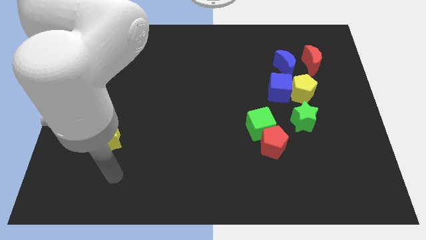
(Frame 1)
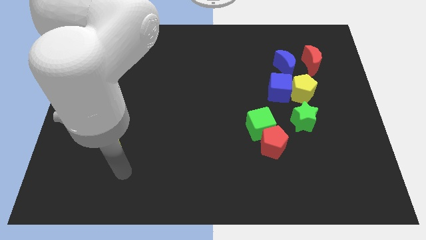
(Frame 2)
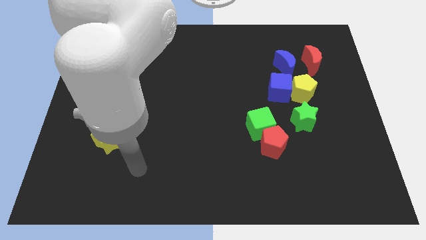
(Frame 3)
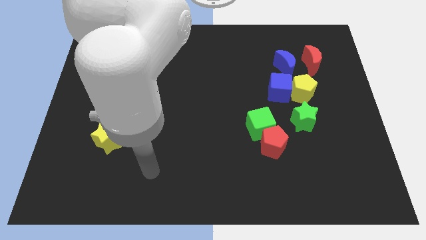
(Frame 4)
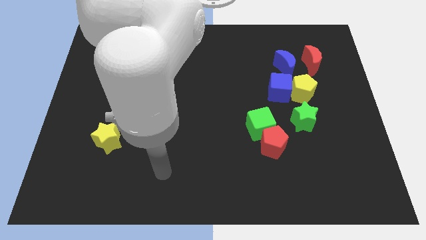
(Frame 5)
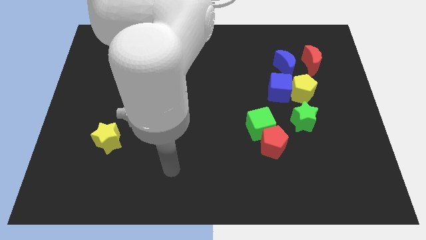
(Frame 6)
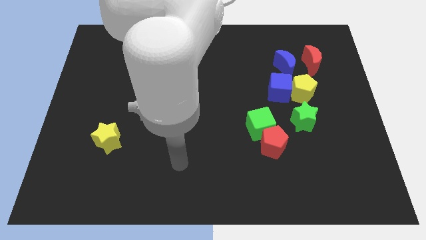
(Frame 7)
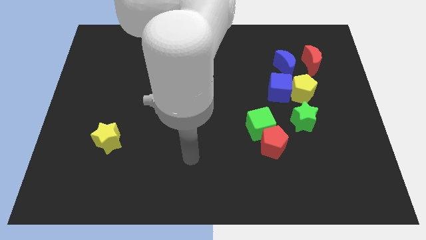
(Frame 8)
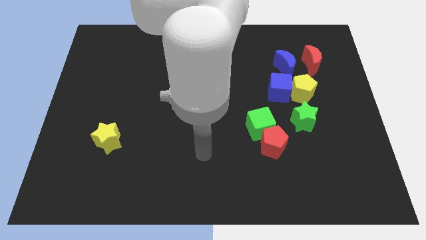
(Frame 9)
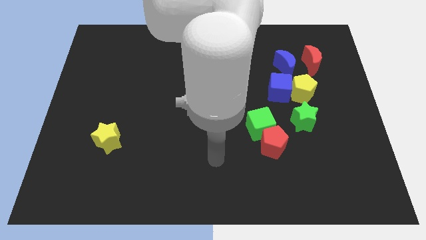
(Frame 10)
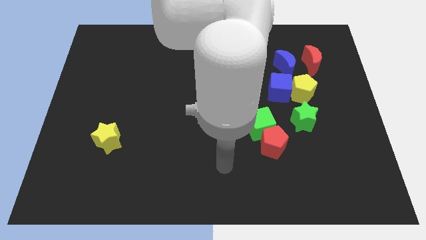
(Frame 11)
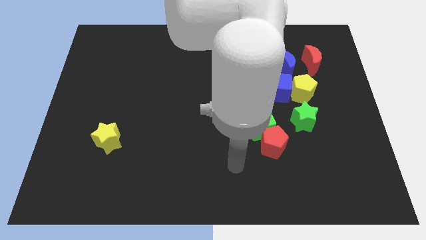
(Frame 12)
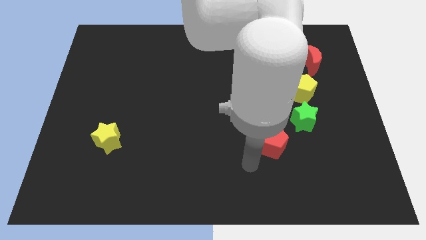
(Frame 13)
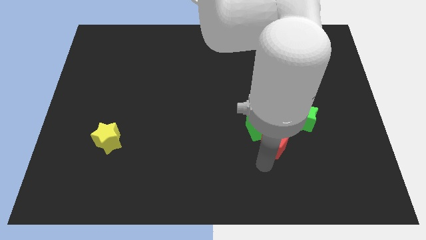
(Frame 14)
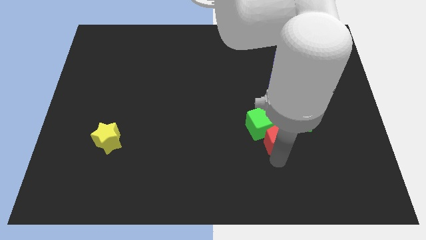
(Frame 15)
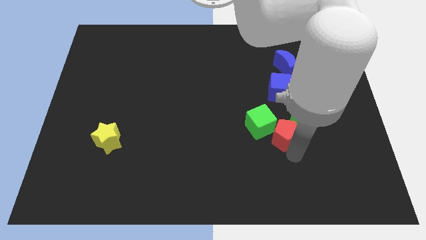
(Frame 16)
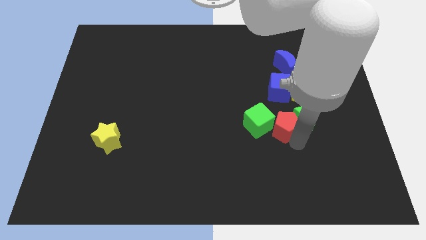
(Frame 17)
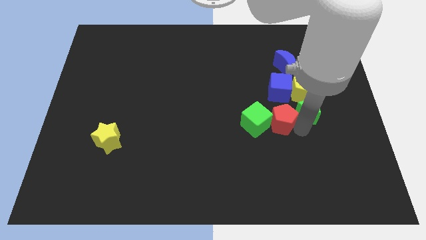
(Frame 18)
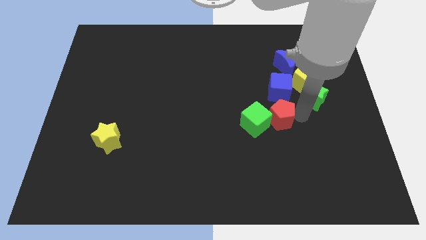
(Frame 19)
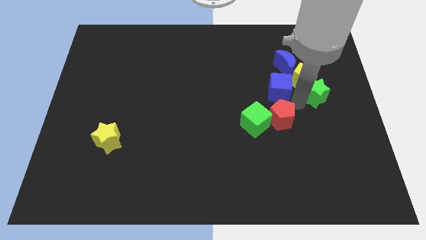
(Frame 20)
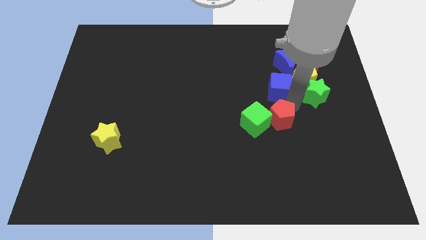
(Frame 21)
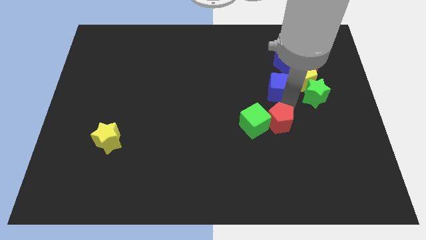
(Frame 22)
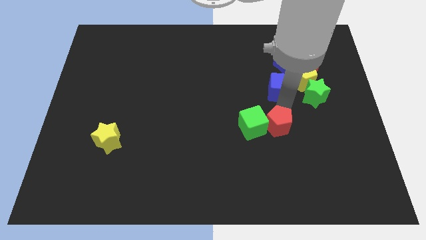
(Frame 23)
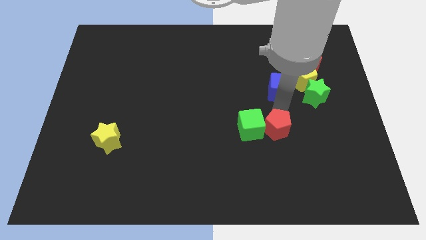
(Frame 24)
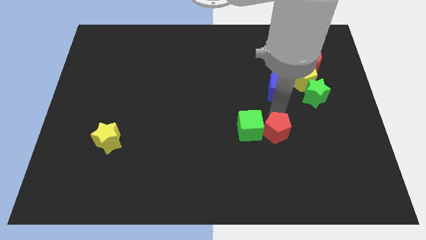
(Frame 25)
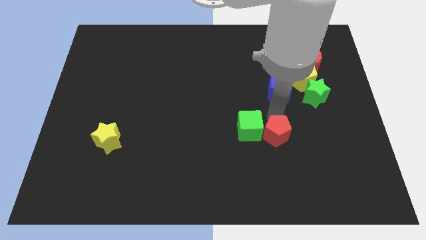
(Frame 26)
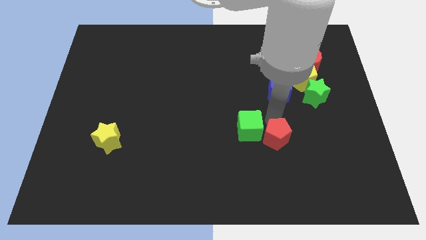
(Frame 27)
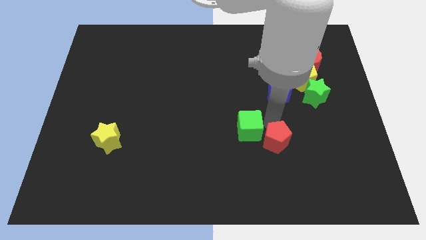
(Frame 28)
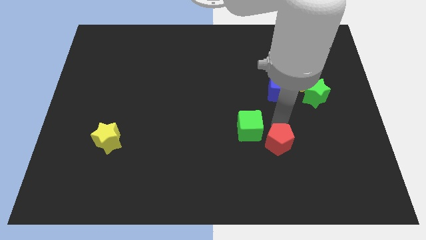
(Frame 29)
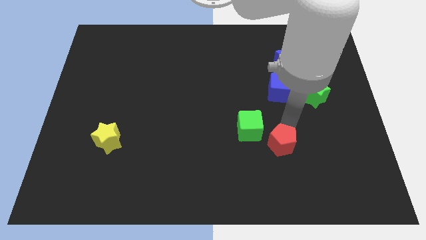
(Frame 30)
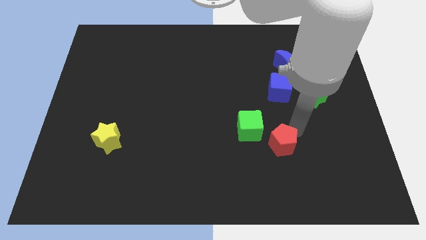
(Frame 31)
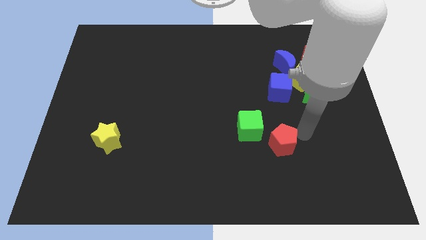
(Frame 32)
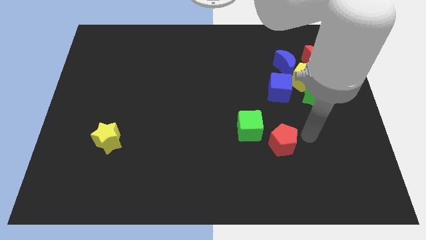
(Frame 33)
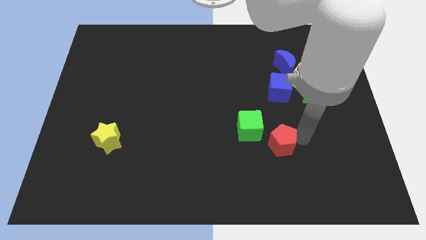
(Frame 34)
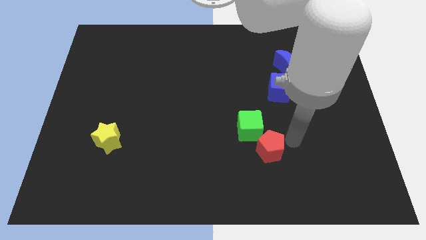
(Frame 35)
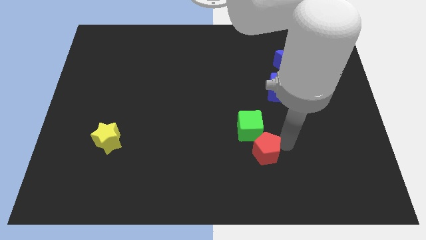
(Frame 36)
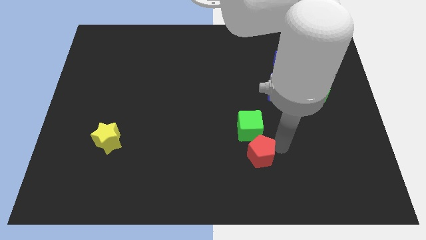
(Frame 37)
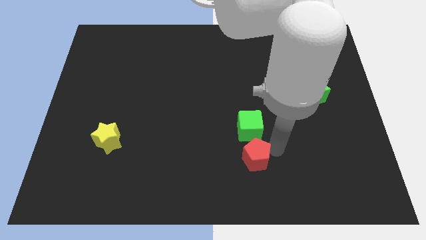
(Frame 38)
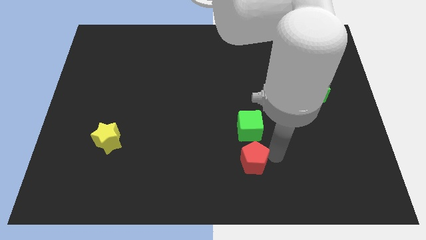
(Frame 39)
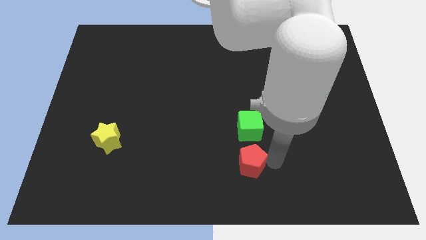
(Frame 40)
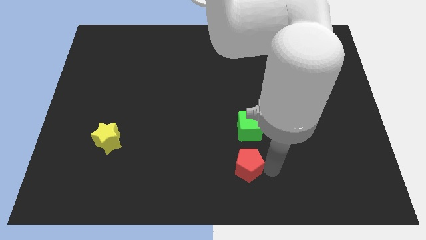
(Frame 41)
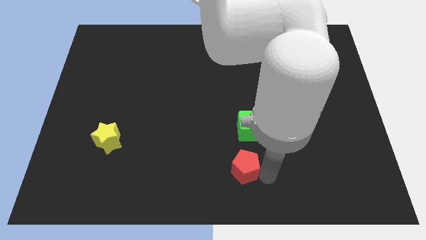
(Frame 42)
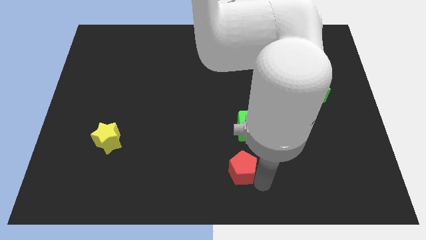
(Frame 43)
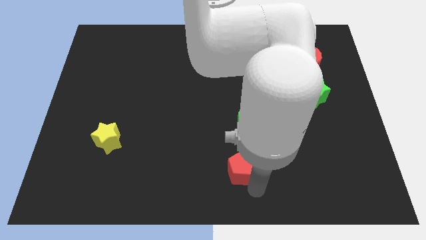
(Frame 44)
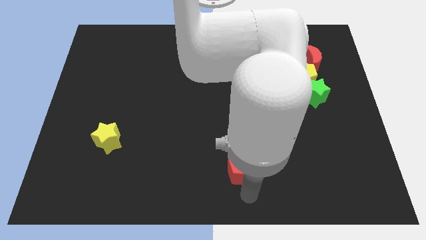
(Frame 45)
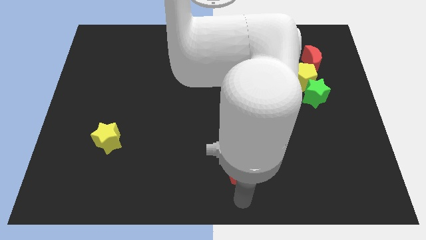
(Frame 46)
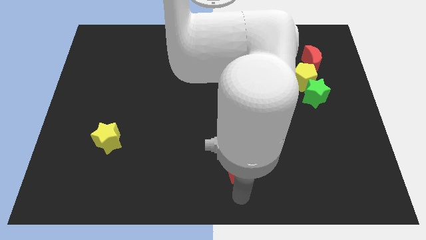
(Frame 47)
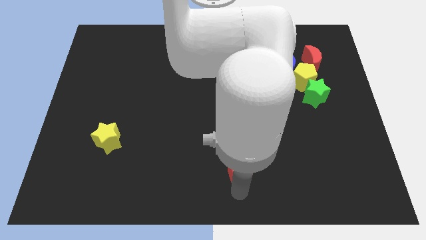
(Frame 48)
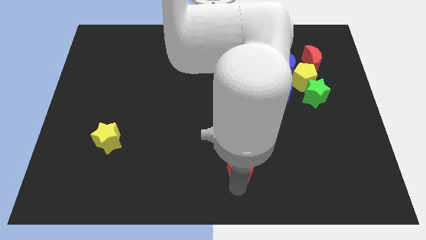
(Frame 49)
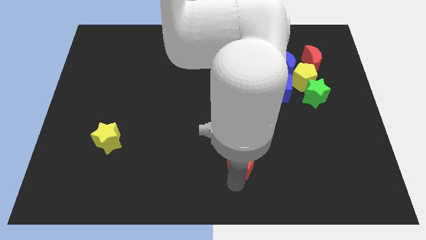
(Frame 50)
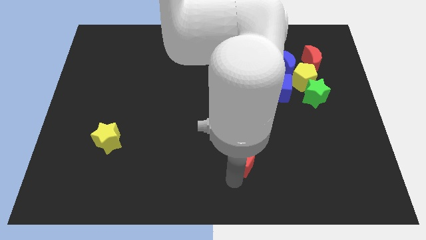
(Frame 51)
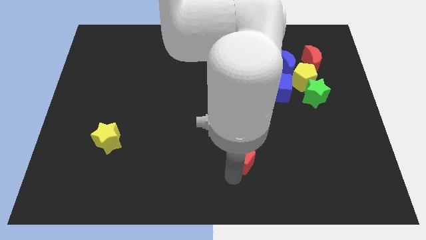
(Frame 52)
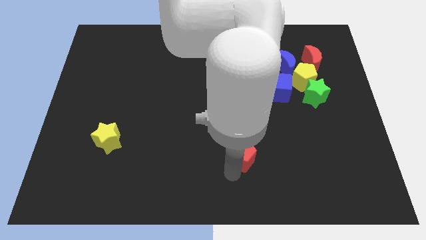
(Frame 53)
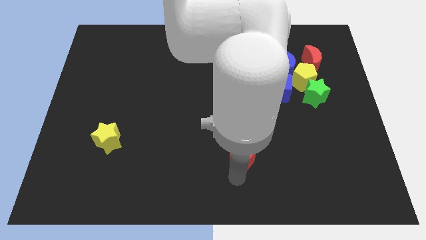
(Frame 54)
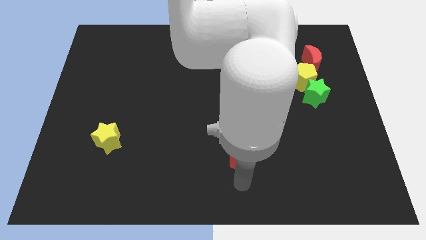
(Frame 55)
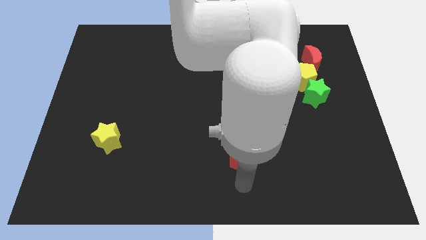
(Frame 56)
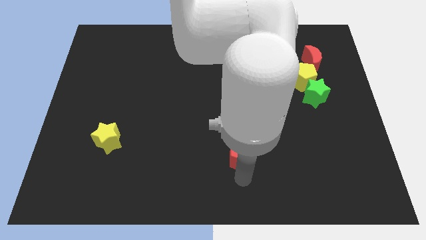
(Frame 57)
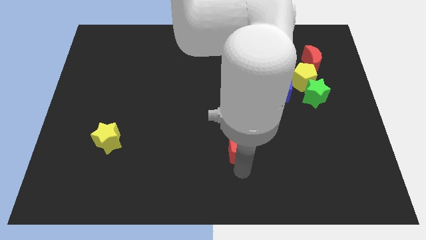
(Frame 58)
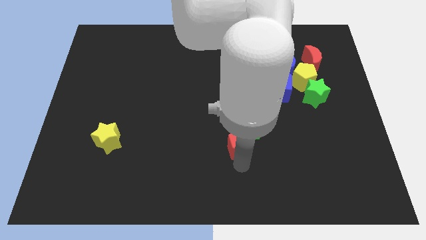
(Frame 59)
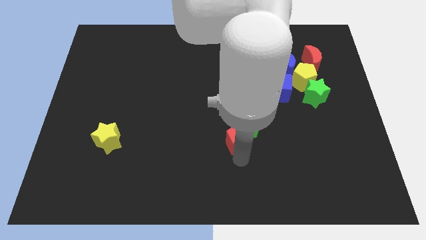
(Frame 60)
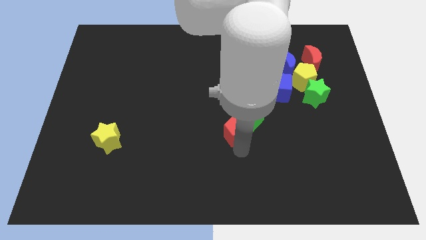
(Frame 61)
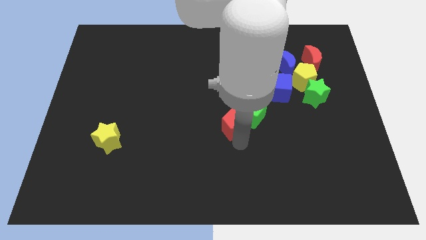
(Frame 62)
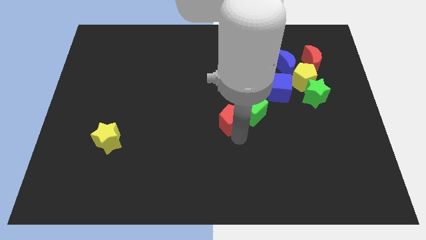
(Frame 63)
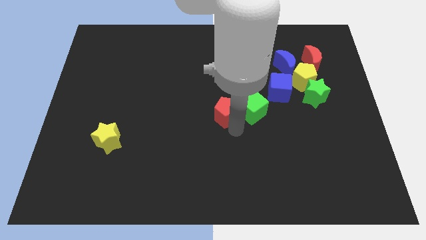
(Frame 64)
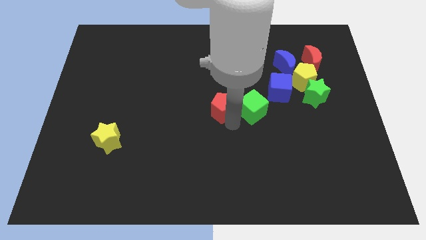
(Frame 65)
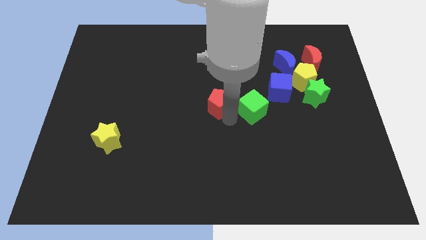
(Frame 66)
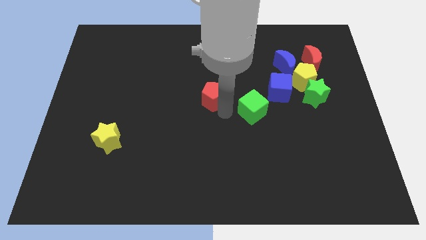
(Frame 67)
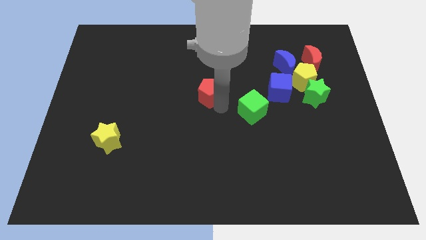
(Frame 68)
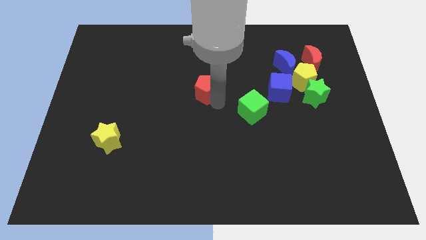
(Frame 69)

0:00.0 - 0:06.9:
slide the red pentagon upwards and to the left

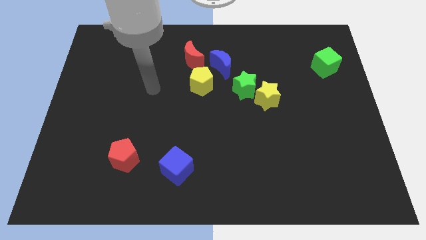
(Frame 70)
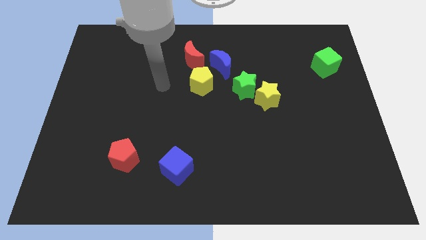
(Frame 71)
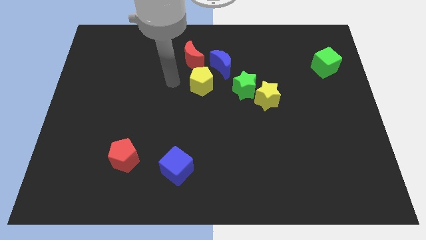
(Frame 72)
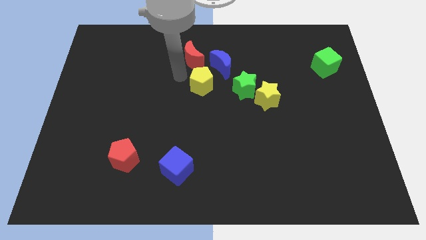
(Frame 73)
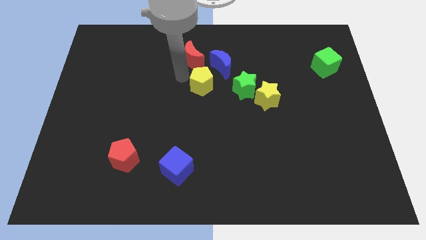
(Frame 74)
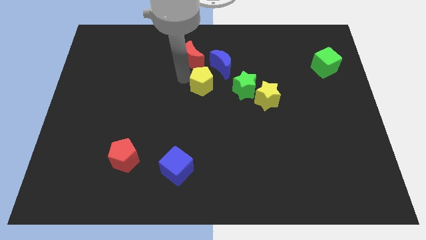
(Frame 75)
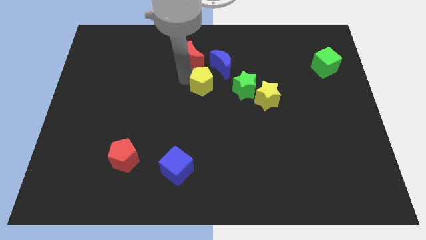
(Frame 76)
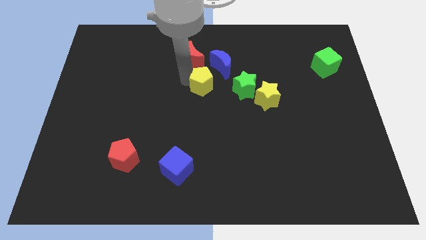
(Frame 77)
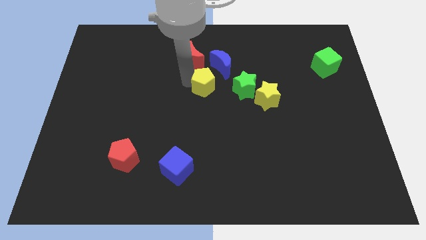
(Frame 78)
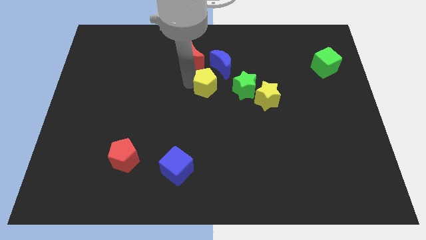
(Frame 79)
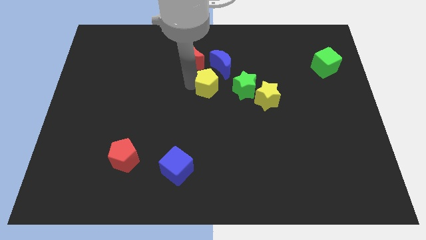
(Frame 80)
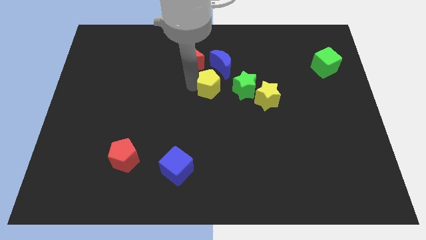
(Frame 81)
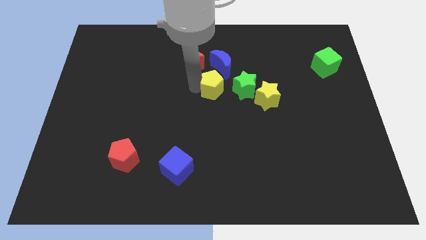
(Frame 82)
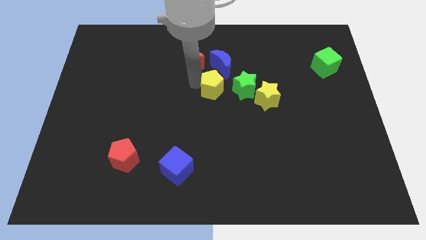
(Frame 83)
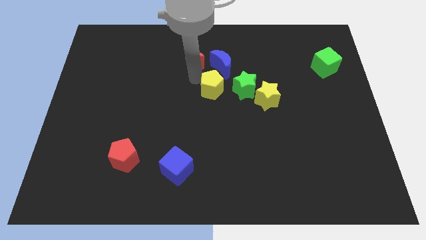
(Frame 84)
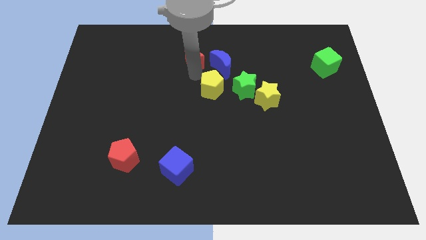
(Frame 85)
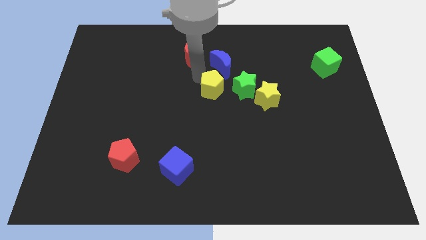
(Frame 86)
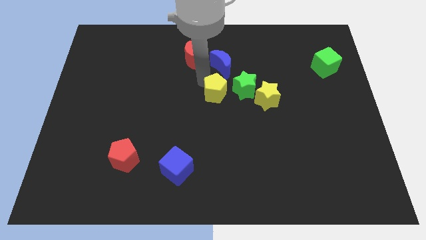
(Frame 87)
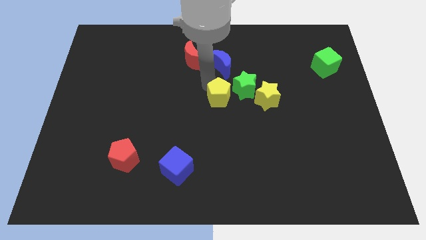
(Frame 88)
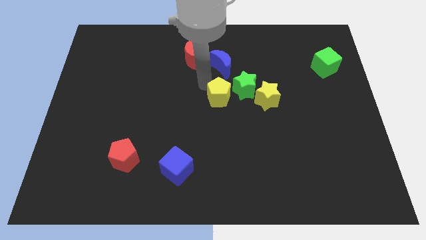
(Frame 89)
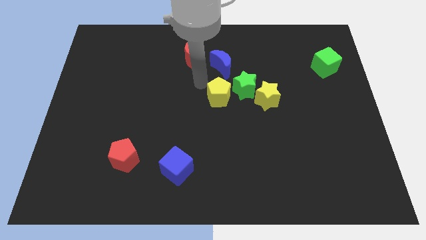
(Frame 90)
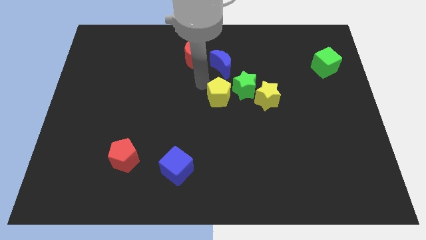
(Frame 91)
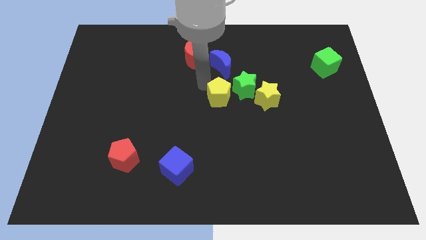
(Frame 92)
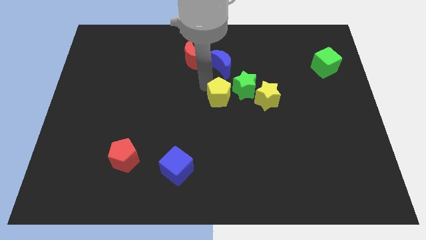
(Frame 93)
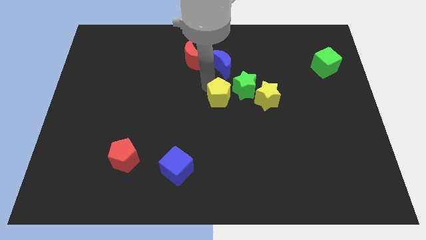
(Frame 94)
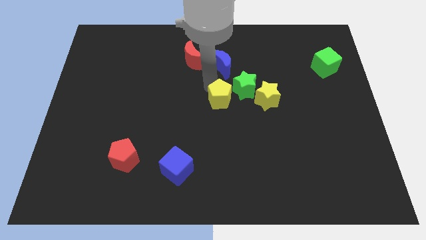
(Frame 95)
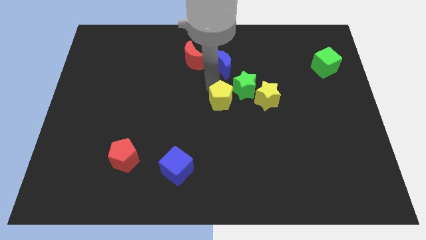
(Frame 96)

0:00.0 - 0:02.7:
slightly push the yellow pentagon diagonally downwards and to the right
